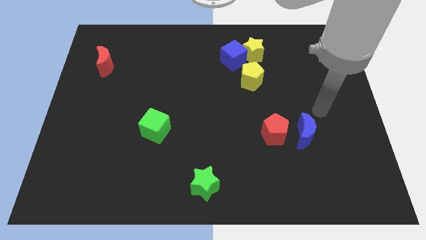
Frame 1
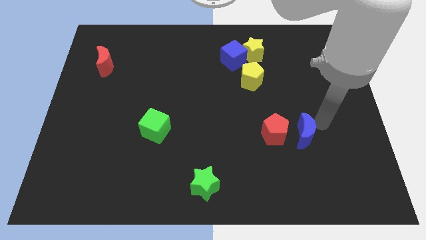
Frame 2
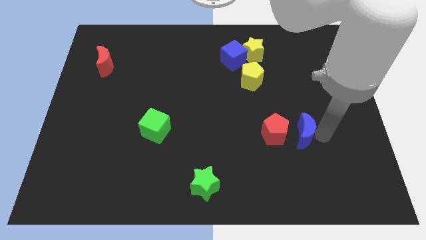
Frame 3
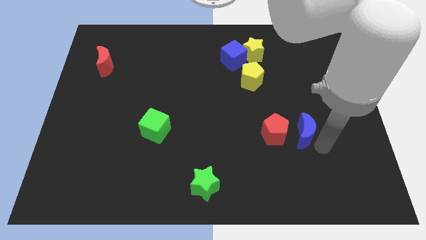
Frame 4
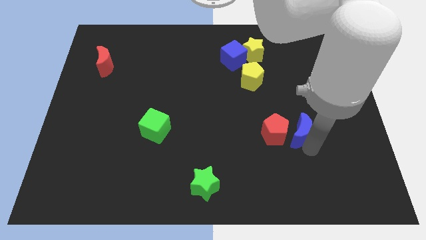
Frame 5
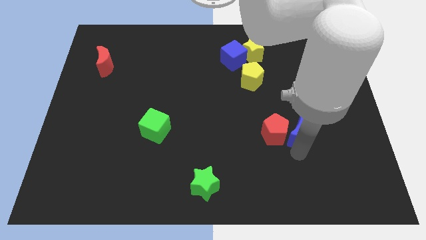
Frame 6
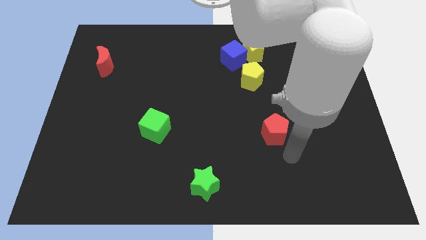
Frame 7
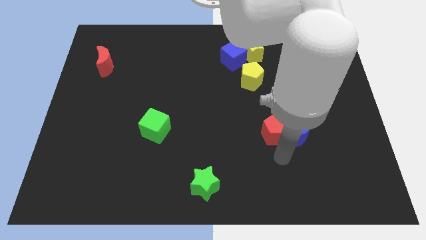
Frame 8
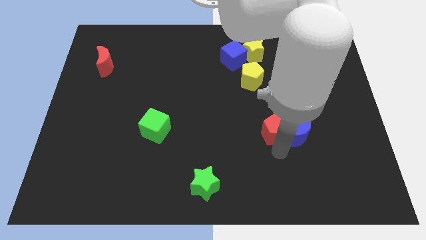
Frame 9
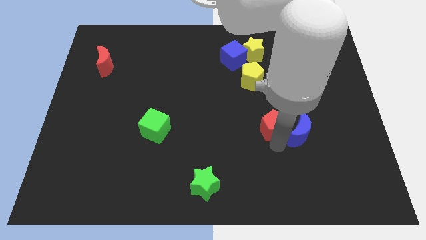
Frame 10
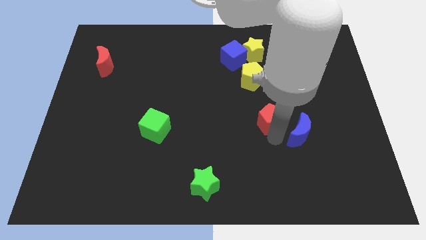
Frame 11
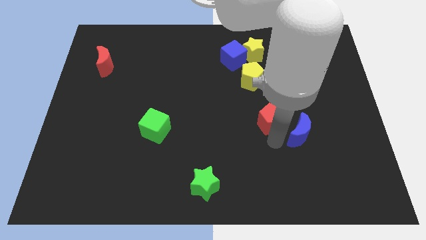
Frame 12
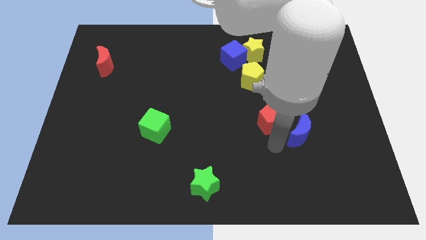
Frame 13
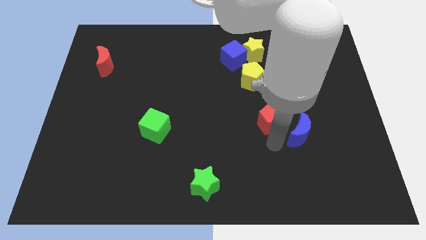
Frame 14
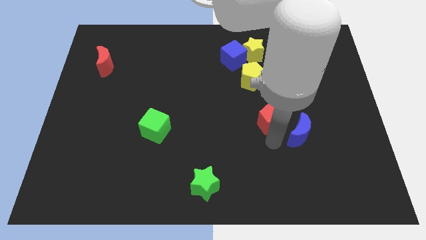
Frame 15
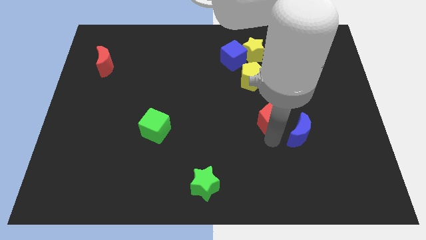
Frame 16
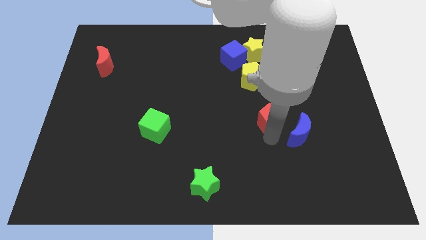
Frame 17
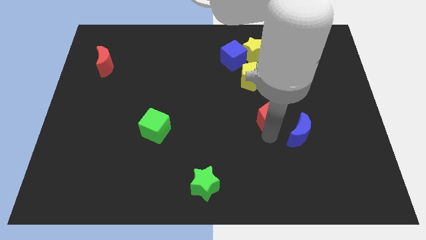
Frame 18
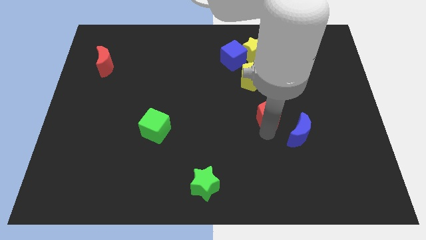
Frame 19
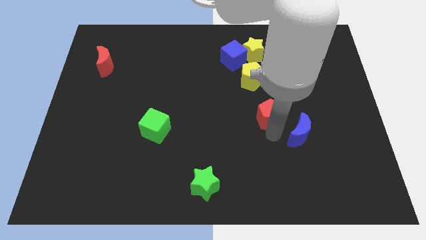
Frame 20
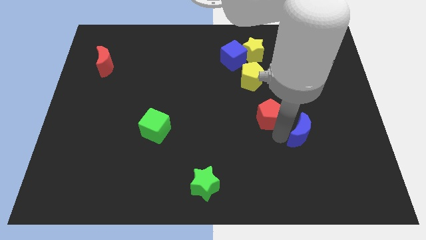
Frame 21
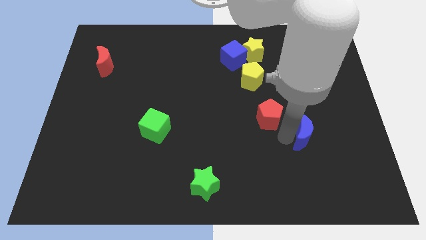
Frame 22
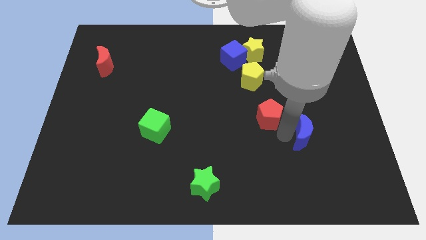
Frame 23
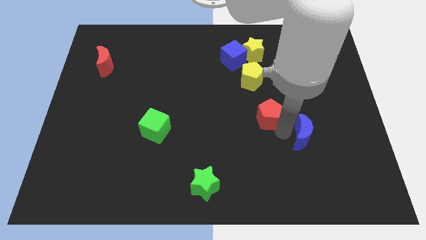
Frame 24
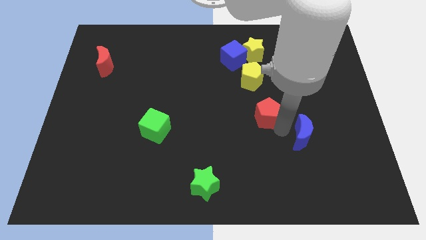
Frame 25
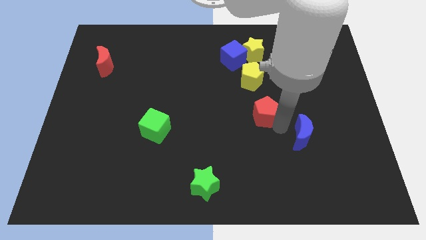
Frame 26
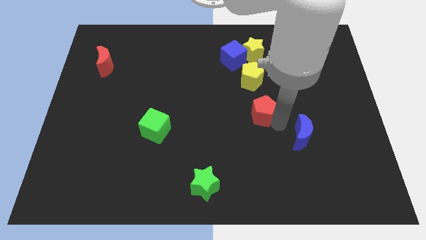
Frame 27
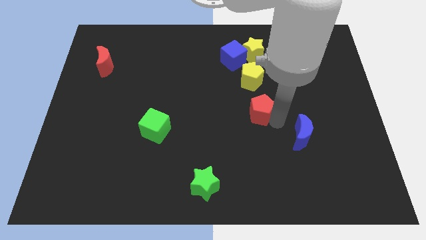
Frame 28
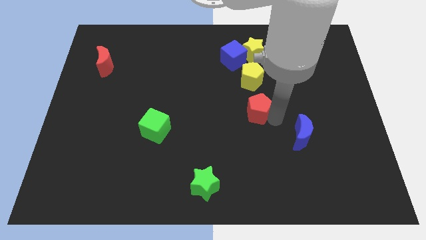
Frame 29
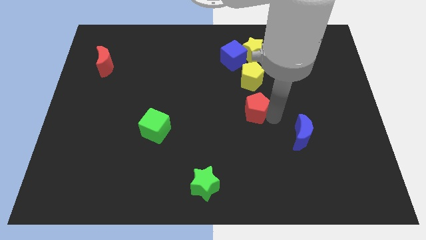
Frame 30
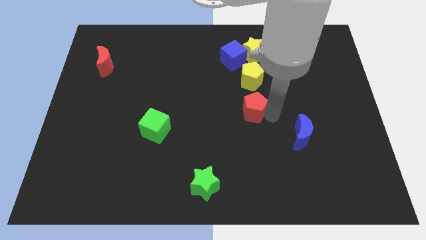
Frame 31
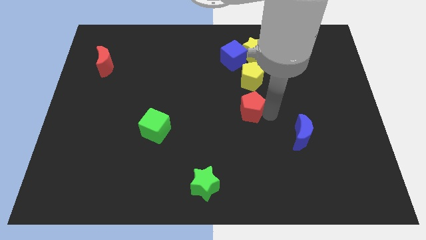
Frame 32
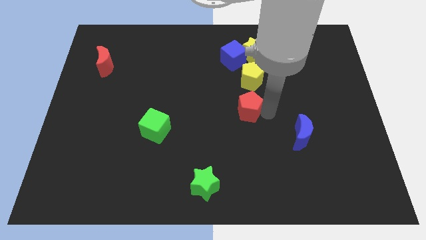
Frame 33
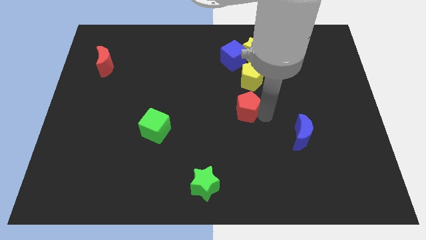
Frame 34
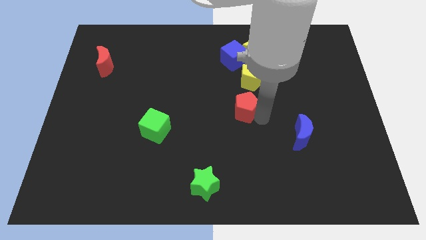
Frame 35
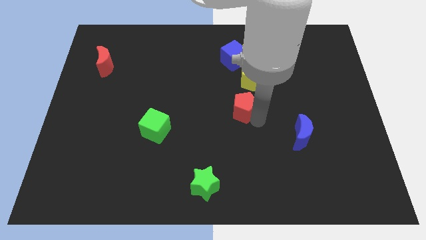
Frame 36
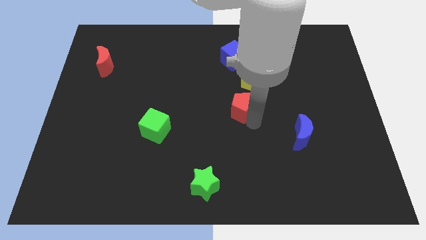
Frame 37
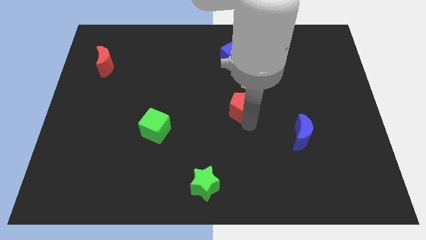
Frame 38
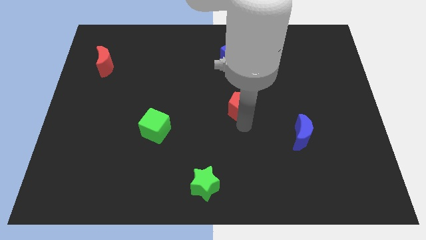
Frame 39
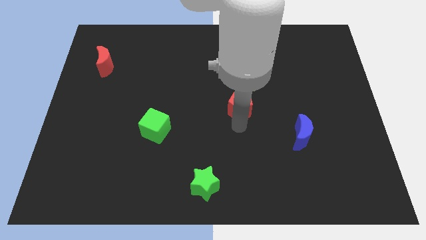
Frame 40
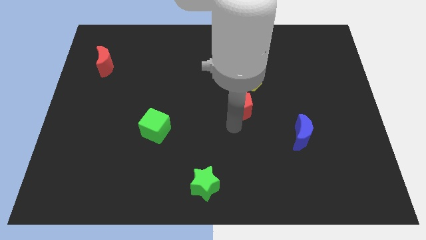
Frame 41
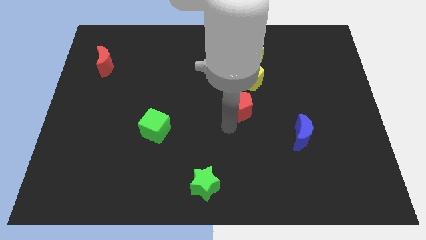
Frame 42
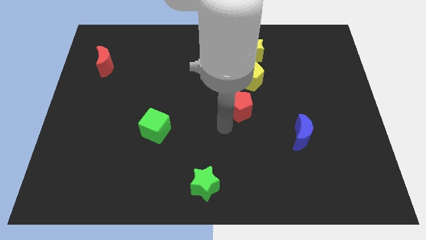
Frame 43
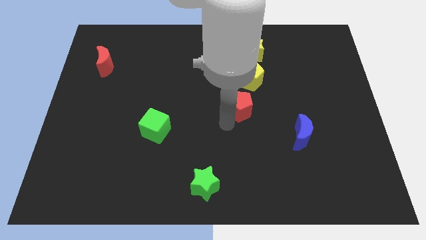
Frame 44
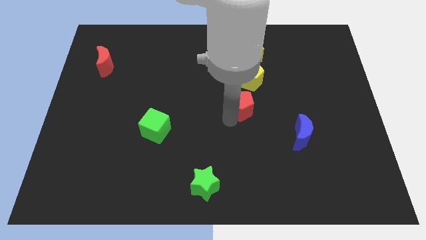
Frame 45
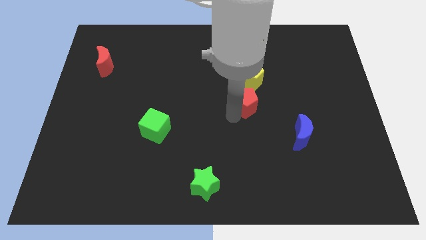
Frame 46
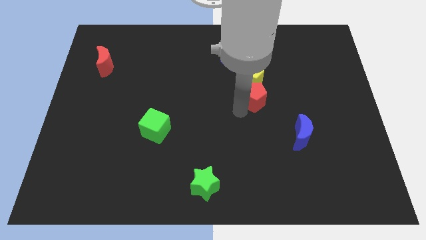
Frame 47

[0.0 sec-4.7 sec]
put the red pentagon next to the yellow pentagon

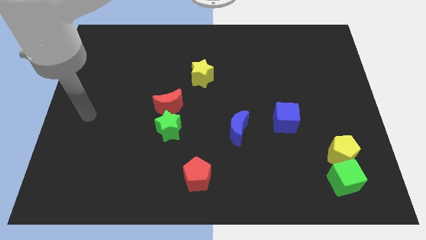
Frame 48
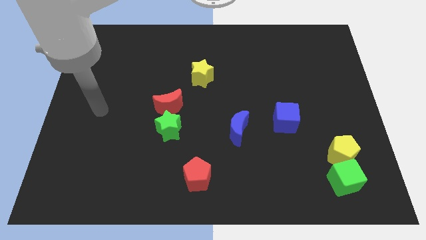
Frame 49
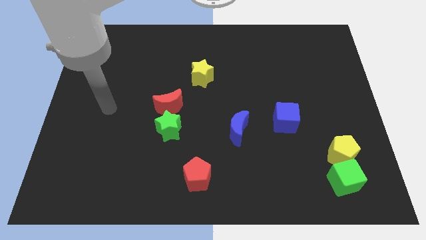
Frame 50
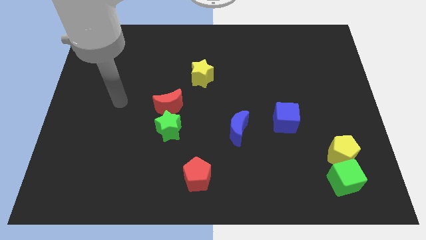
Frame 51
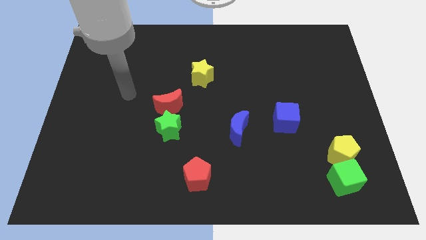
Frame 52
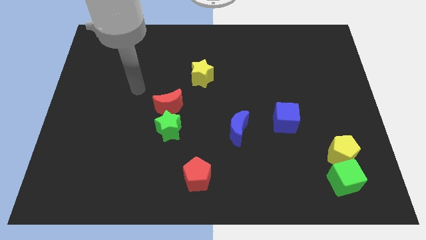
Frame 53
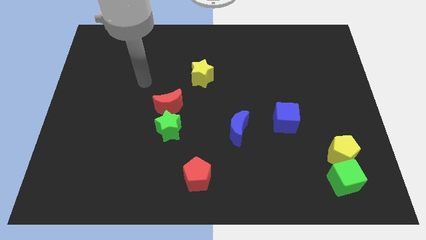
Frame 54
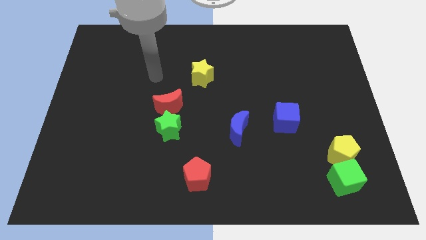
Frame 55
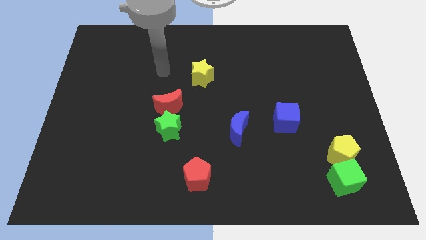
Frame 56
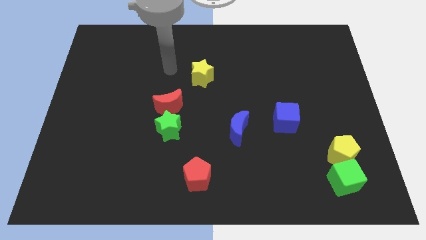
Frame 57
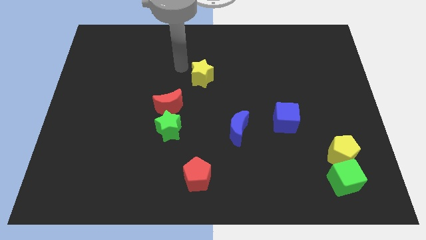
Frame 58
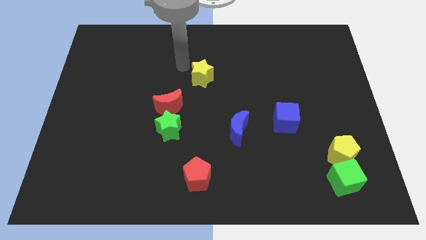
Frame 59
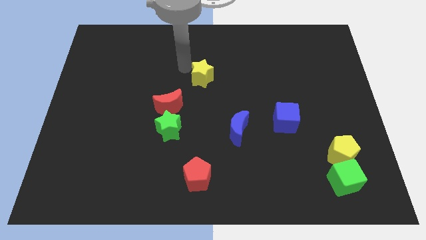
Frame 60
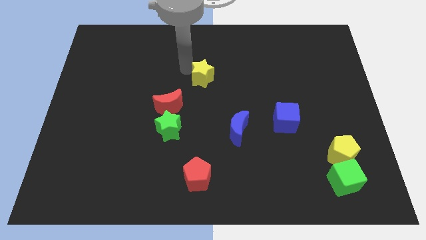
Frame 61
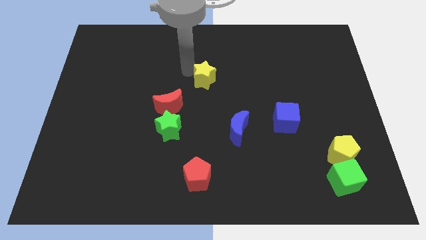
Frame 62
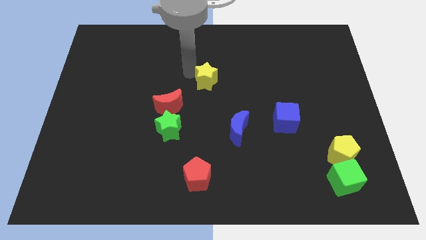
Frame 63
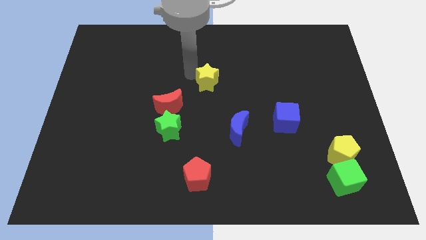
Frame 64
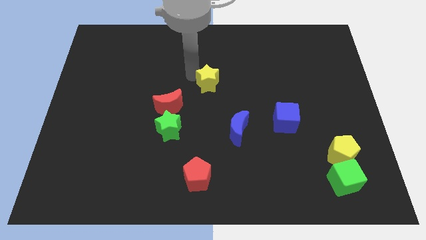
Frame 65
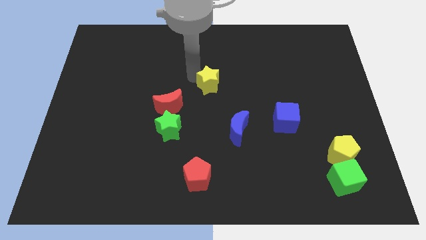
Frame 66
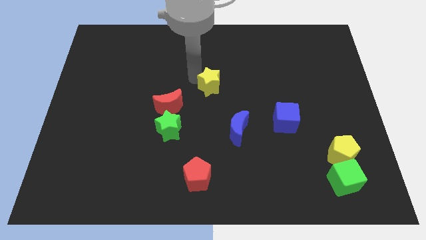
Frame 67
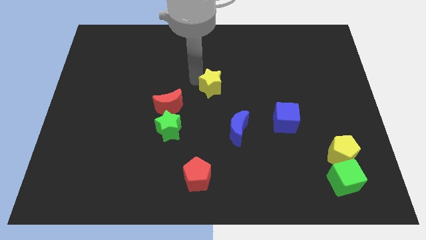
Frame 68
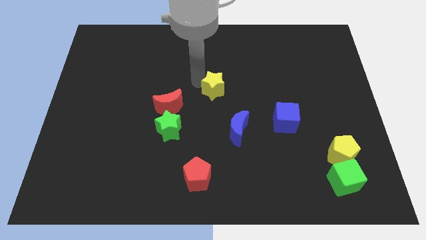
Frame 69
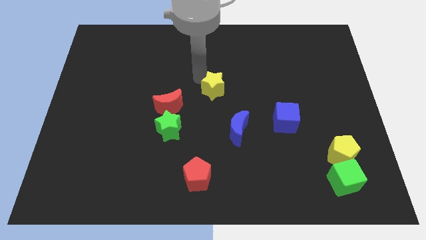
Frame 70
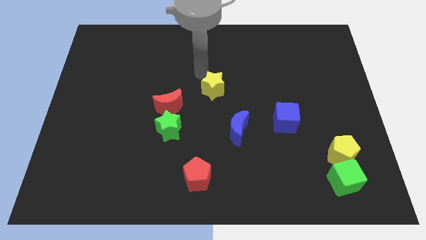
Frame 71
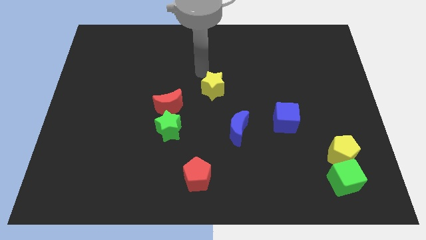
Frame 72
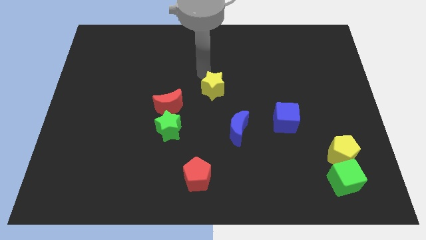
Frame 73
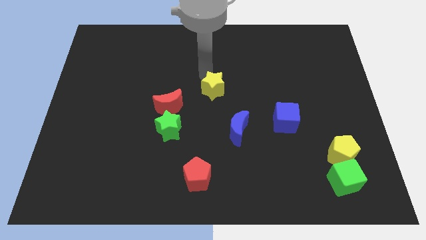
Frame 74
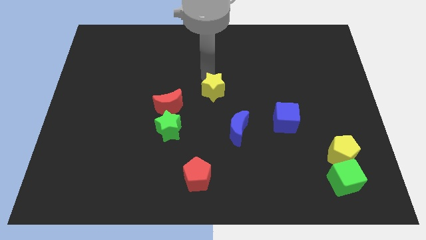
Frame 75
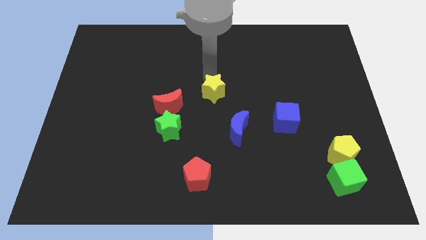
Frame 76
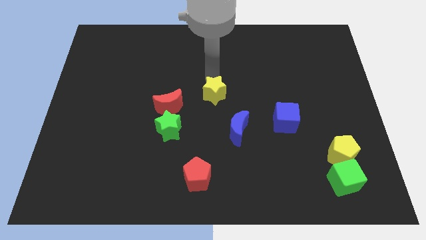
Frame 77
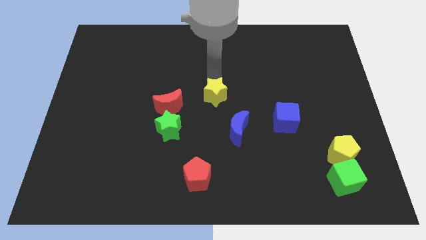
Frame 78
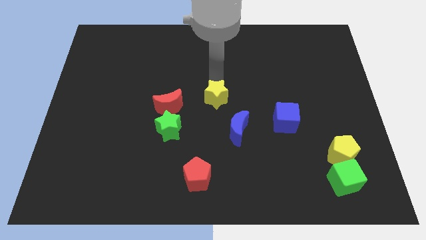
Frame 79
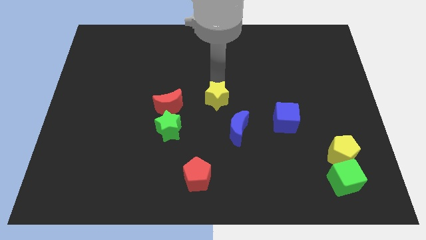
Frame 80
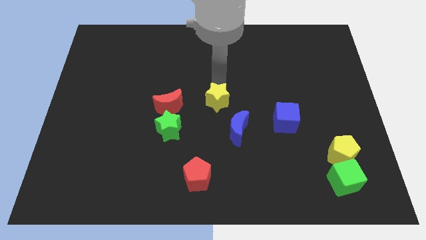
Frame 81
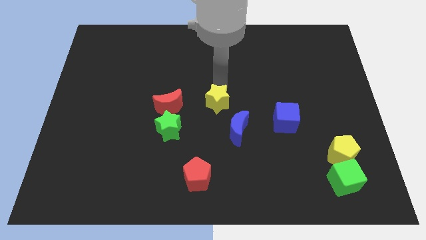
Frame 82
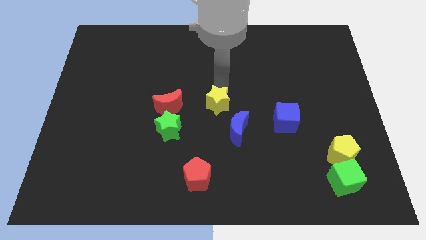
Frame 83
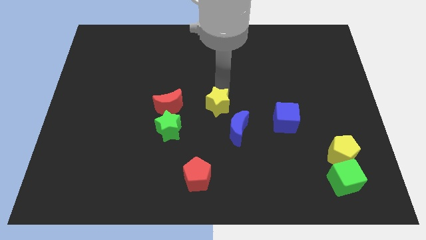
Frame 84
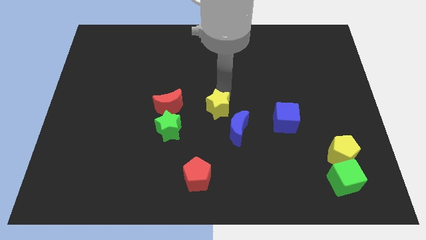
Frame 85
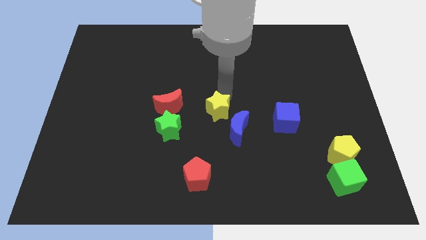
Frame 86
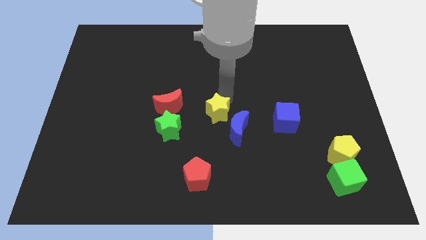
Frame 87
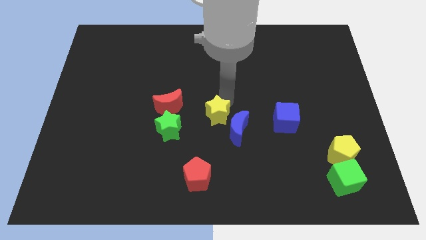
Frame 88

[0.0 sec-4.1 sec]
move the yellow star next to the blue moon
